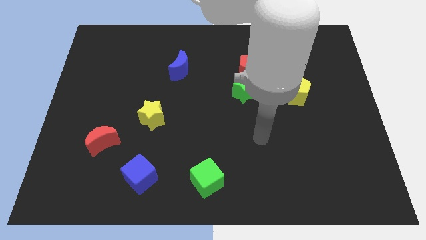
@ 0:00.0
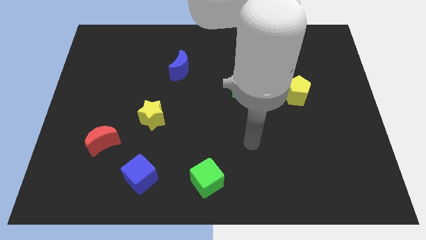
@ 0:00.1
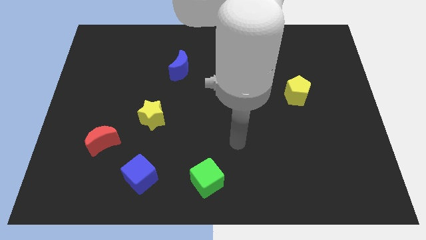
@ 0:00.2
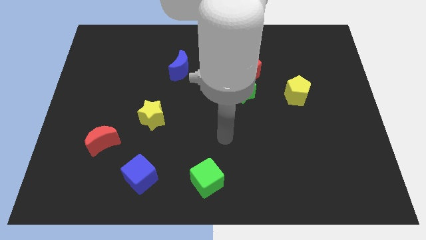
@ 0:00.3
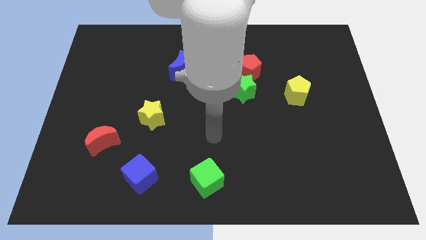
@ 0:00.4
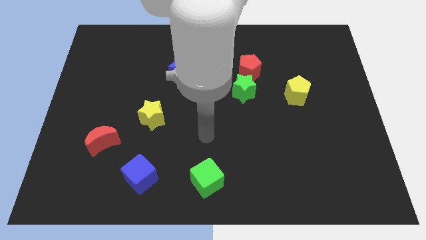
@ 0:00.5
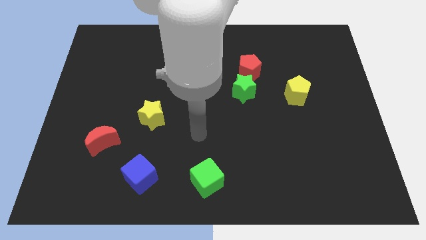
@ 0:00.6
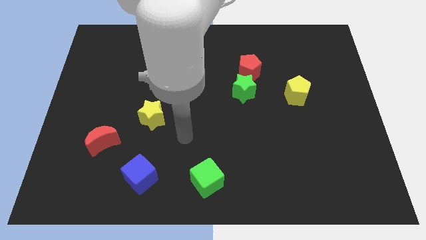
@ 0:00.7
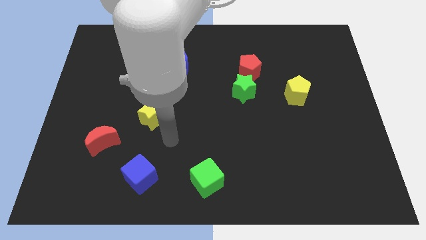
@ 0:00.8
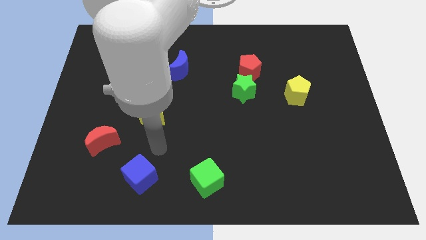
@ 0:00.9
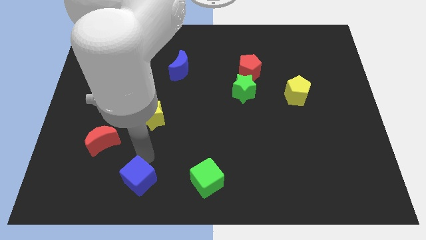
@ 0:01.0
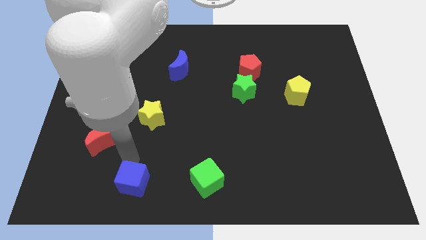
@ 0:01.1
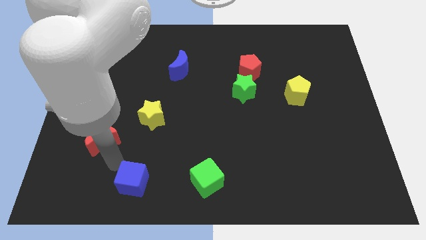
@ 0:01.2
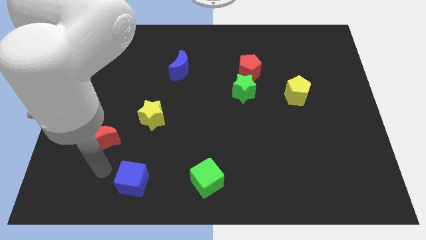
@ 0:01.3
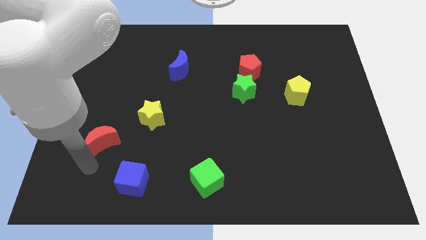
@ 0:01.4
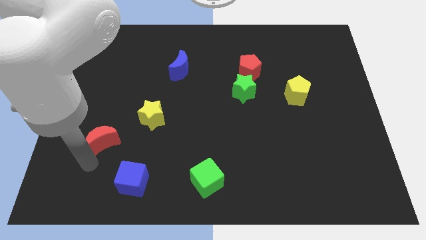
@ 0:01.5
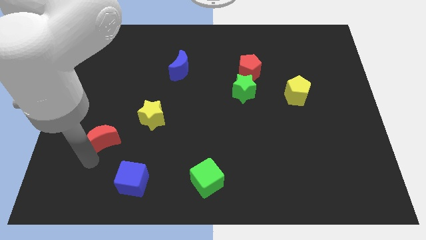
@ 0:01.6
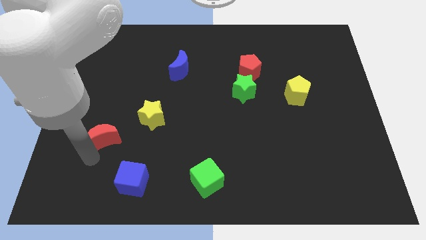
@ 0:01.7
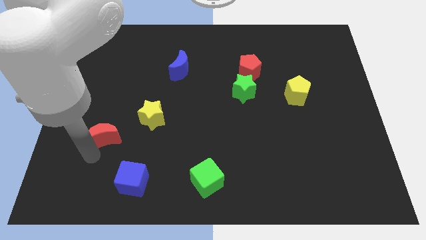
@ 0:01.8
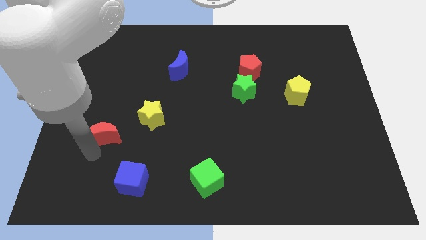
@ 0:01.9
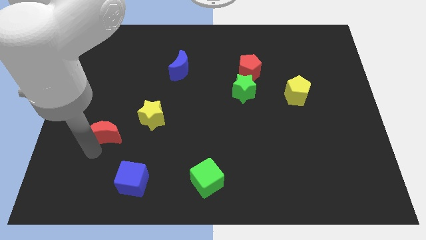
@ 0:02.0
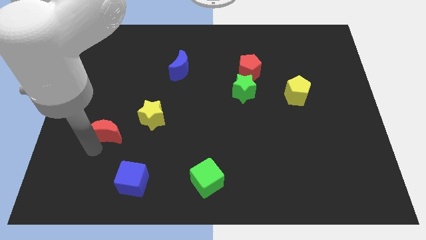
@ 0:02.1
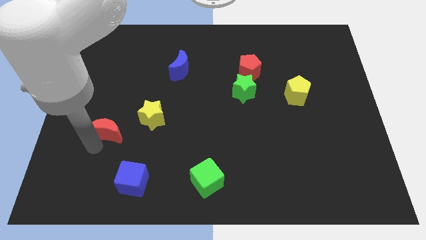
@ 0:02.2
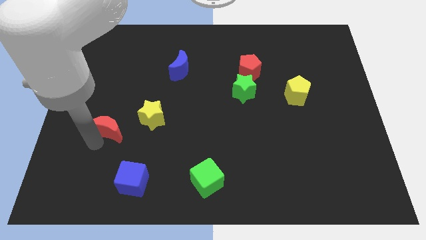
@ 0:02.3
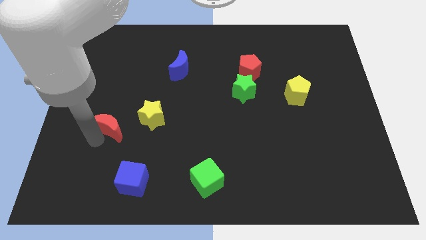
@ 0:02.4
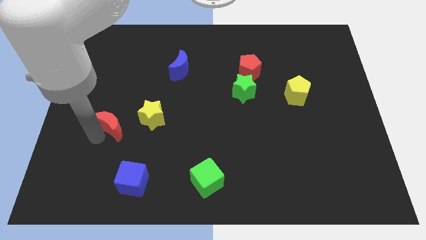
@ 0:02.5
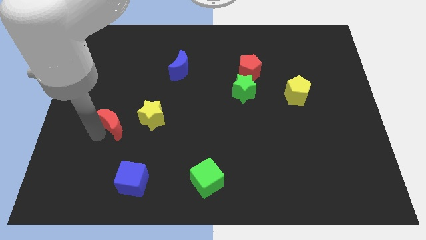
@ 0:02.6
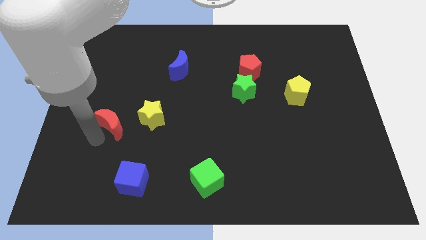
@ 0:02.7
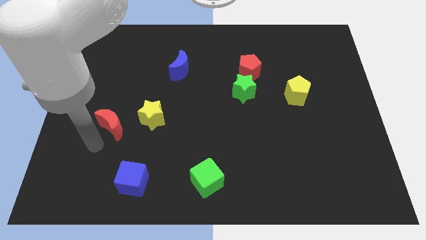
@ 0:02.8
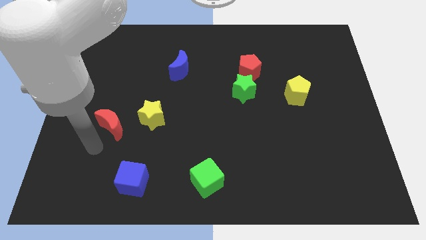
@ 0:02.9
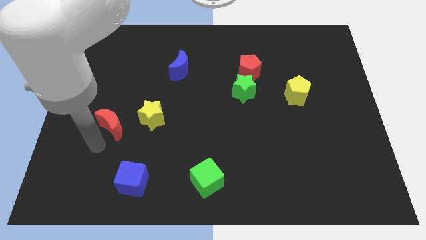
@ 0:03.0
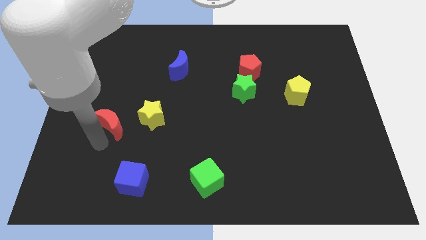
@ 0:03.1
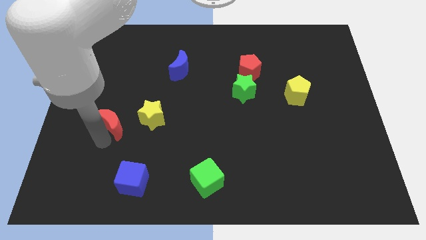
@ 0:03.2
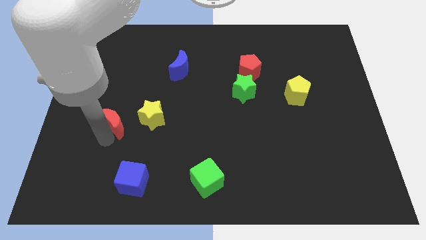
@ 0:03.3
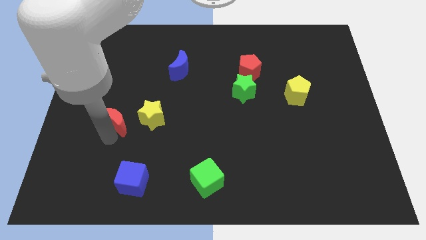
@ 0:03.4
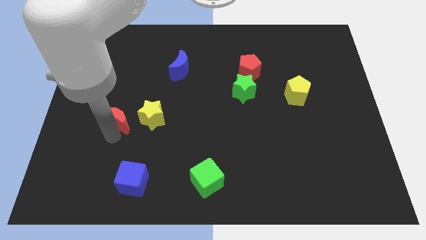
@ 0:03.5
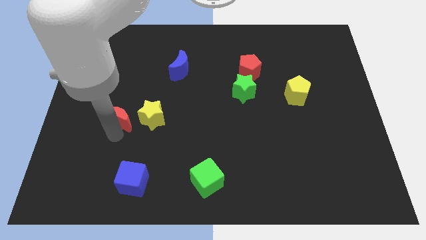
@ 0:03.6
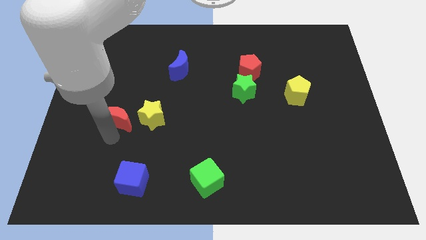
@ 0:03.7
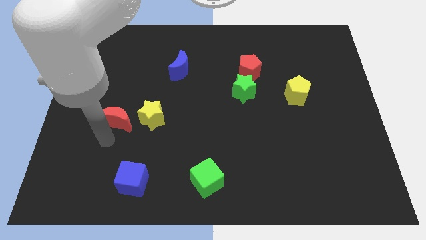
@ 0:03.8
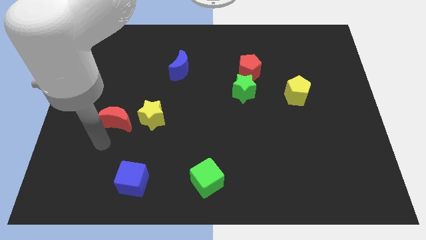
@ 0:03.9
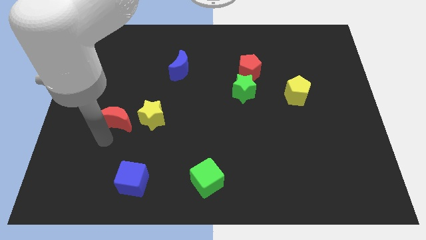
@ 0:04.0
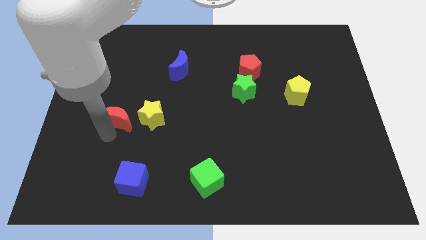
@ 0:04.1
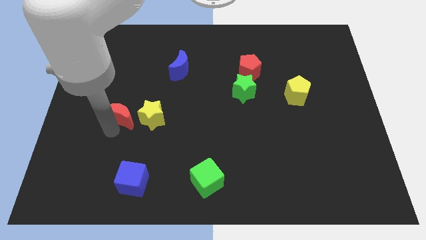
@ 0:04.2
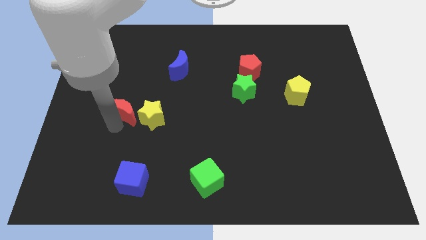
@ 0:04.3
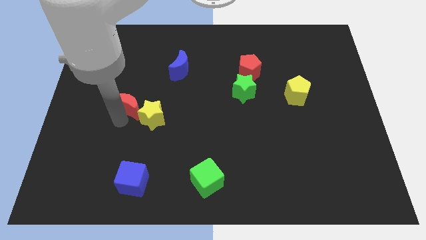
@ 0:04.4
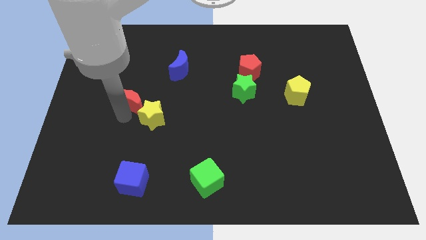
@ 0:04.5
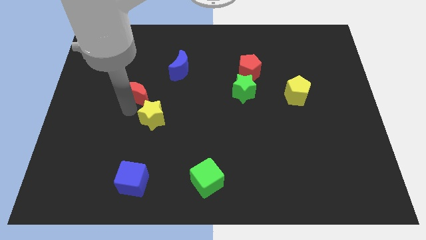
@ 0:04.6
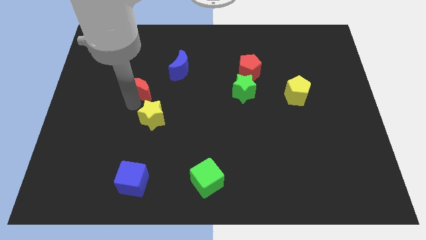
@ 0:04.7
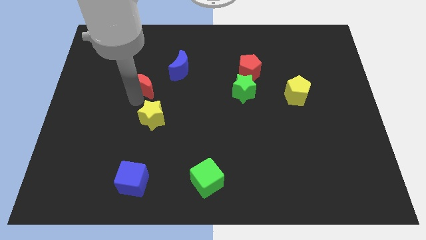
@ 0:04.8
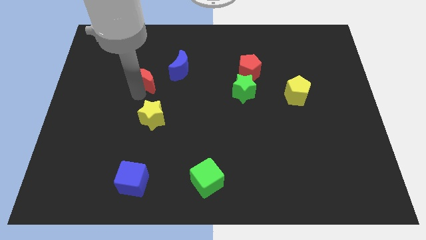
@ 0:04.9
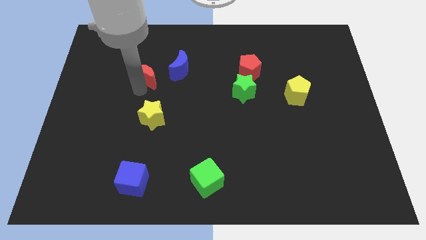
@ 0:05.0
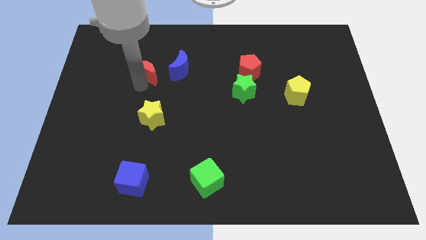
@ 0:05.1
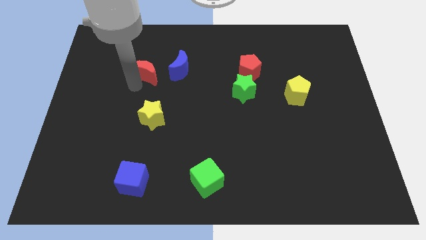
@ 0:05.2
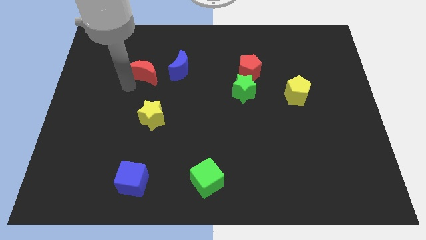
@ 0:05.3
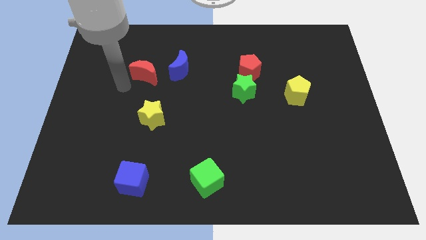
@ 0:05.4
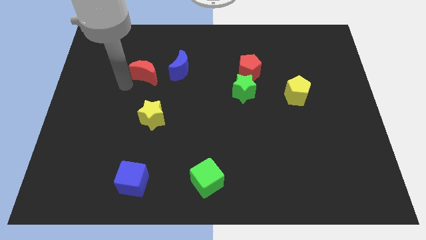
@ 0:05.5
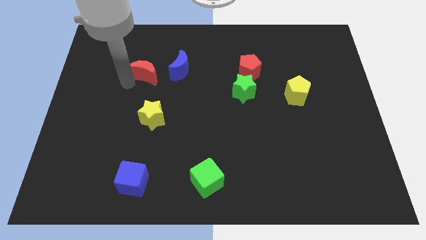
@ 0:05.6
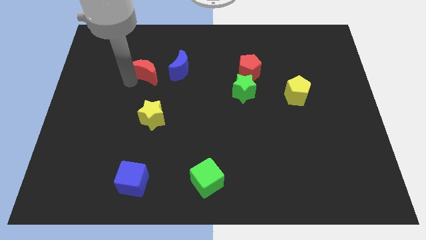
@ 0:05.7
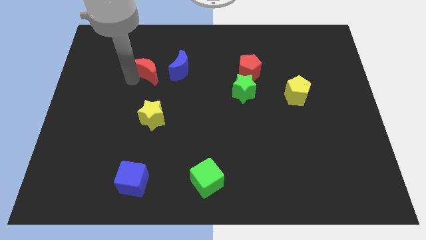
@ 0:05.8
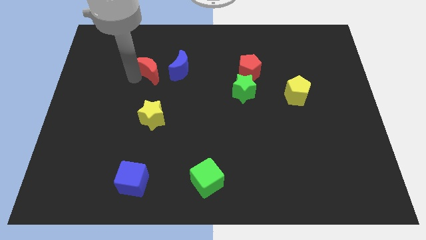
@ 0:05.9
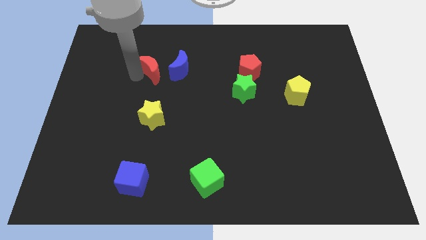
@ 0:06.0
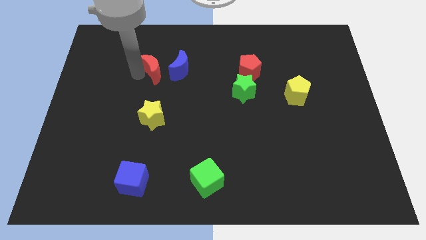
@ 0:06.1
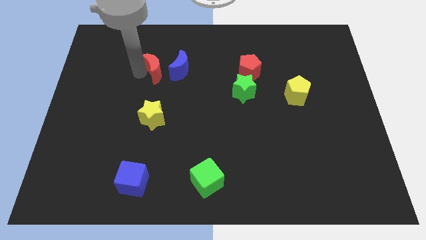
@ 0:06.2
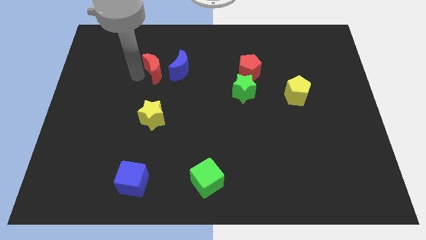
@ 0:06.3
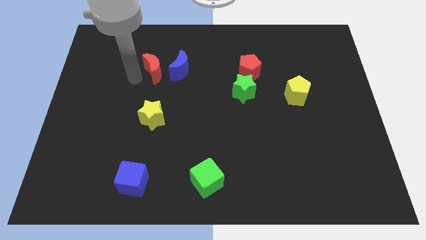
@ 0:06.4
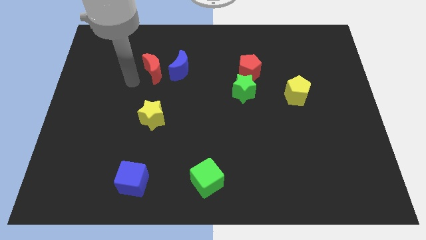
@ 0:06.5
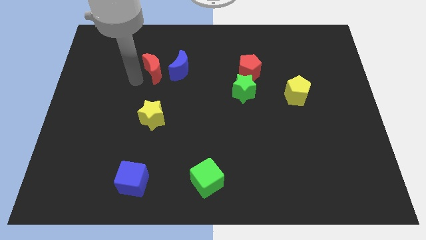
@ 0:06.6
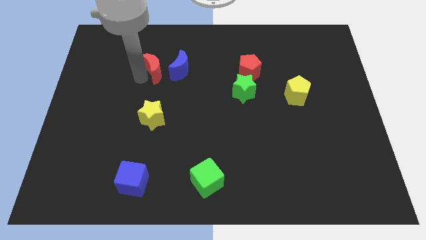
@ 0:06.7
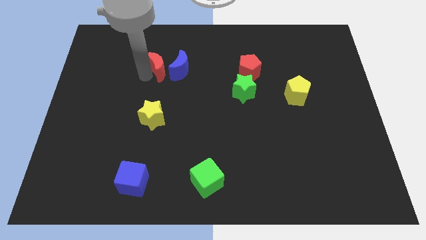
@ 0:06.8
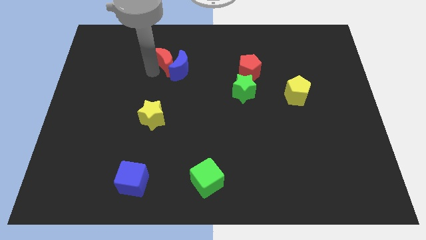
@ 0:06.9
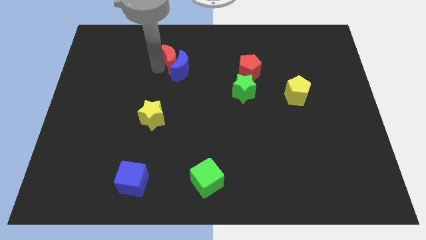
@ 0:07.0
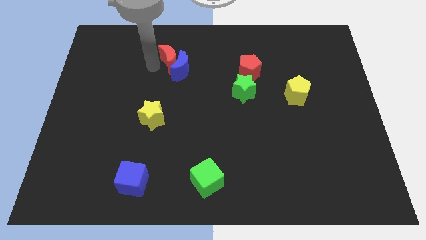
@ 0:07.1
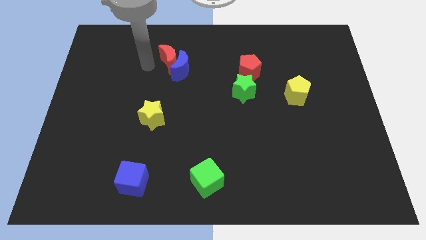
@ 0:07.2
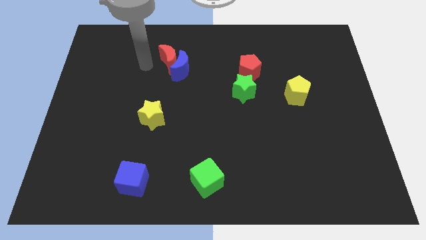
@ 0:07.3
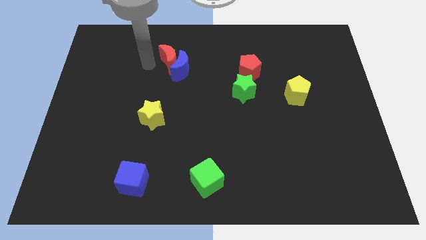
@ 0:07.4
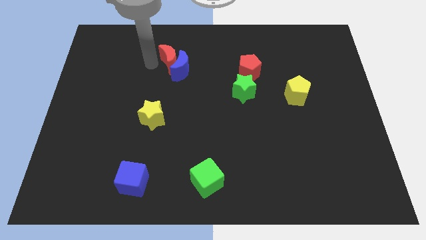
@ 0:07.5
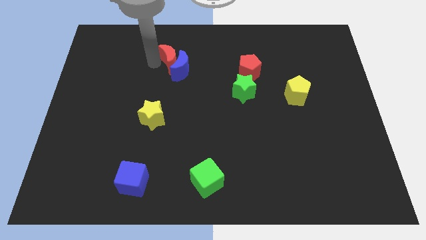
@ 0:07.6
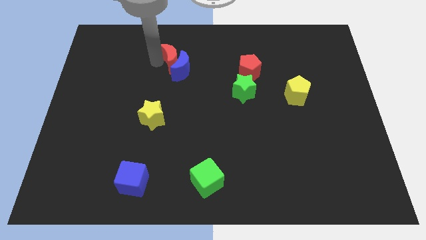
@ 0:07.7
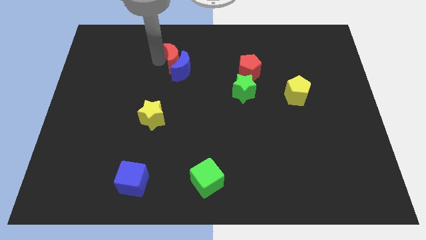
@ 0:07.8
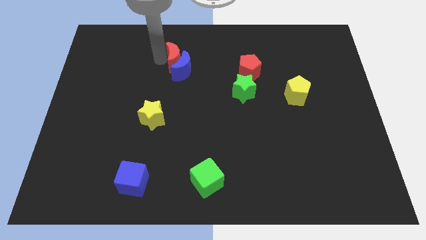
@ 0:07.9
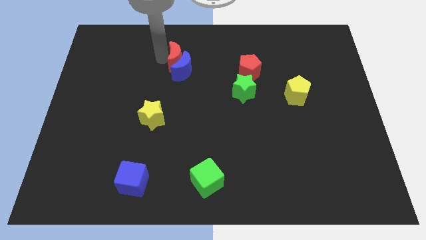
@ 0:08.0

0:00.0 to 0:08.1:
move the red moon diagonally up and to the right of the blue moon
